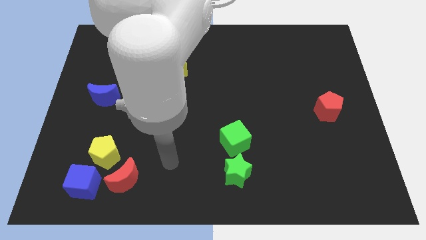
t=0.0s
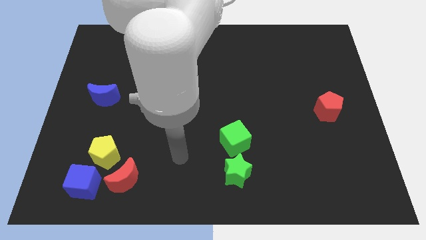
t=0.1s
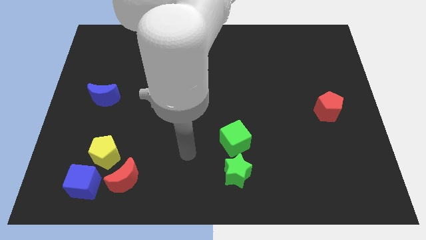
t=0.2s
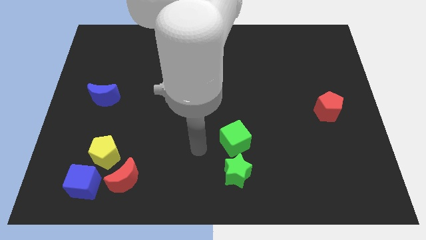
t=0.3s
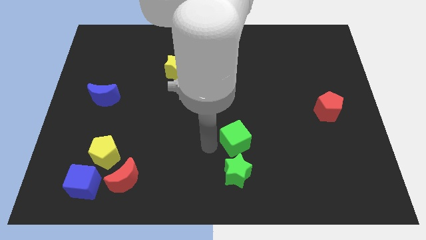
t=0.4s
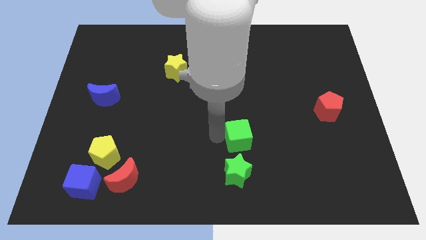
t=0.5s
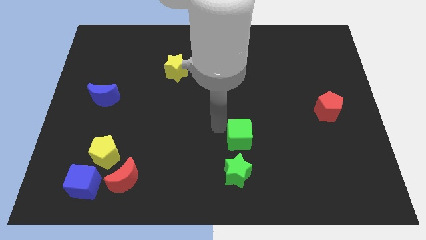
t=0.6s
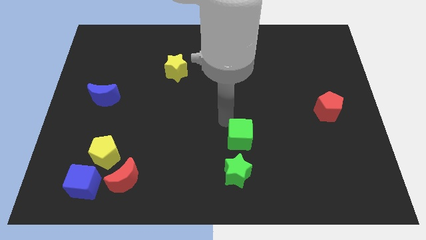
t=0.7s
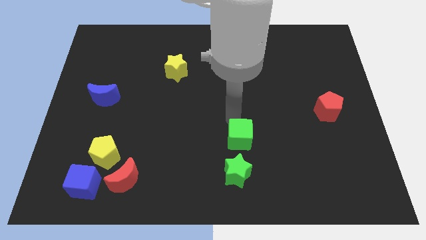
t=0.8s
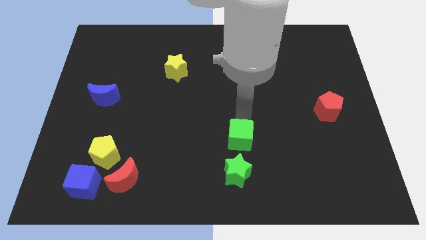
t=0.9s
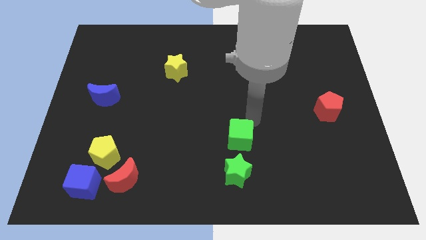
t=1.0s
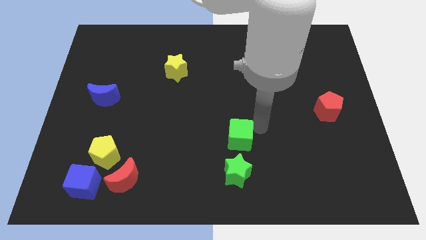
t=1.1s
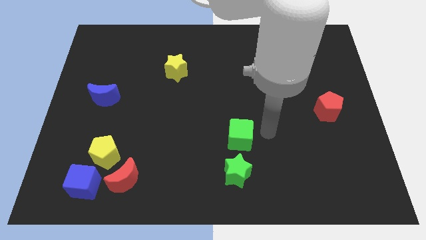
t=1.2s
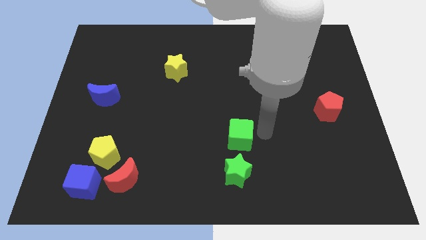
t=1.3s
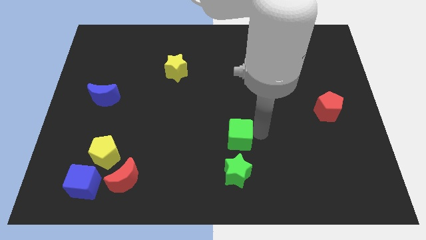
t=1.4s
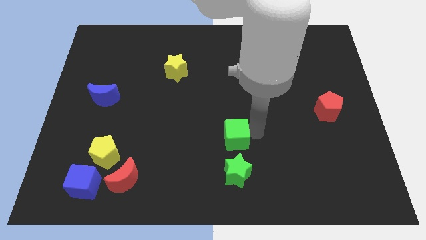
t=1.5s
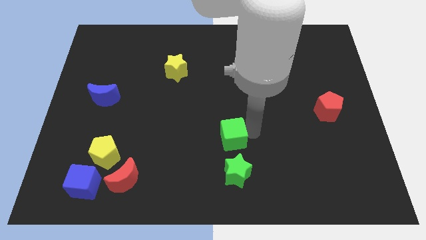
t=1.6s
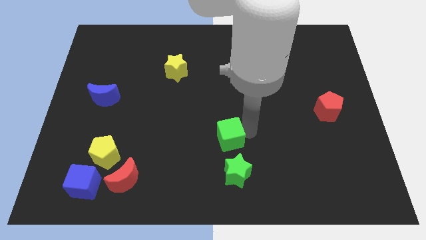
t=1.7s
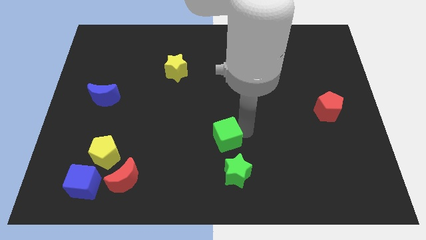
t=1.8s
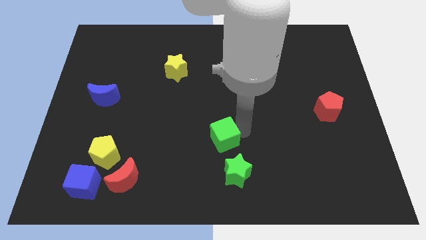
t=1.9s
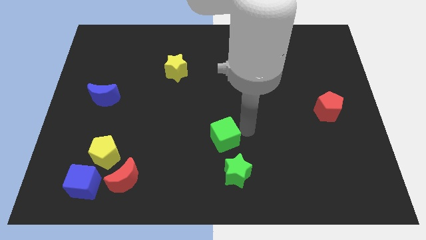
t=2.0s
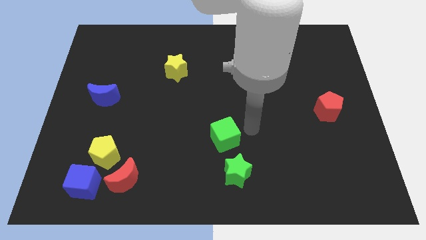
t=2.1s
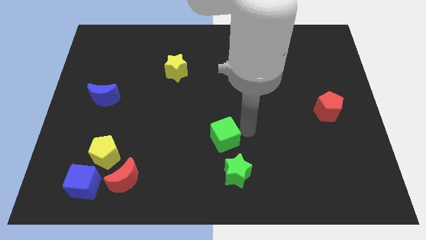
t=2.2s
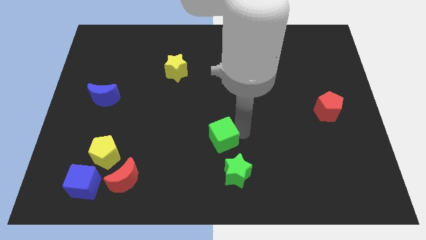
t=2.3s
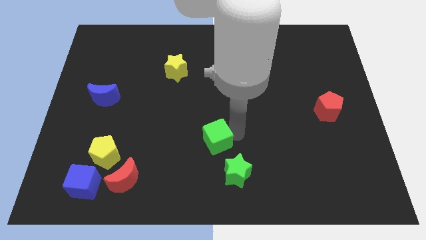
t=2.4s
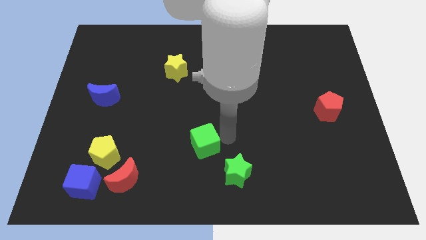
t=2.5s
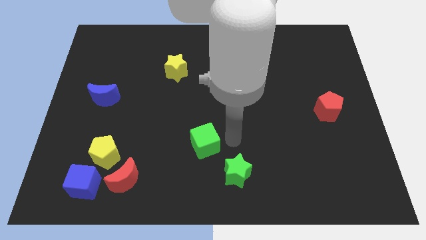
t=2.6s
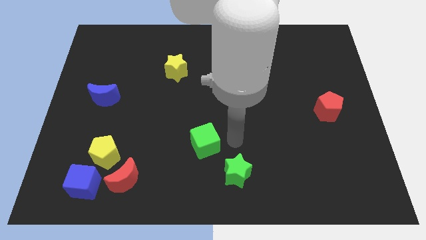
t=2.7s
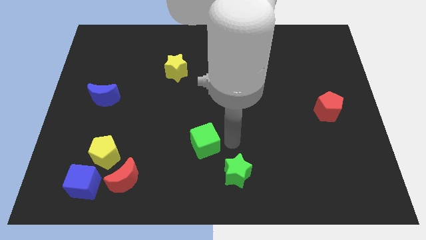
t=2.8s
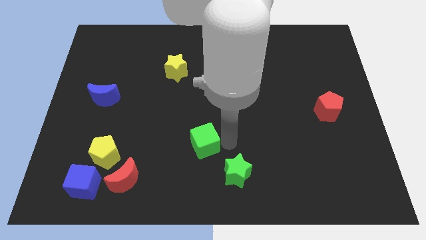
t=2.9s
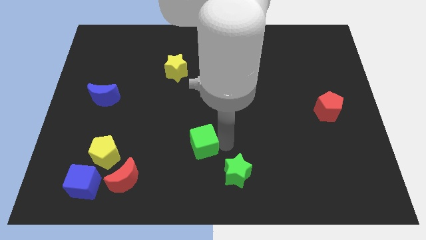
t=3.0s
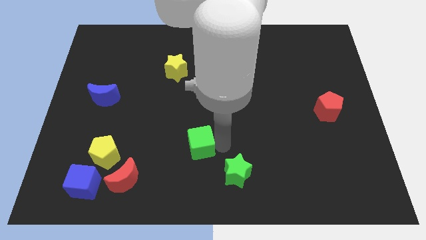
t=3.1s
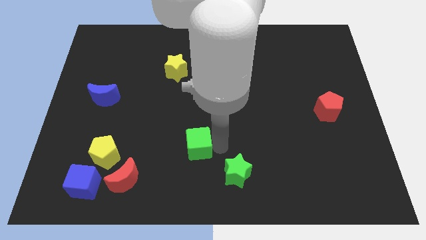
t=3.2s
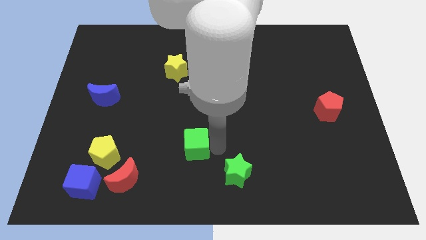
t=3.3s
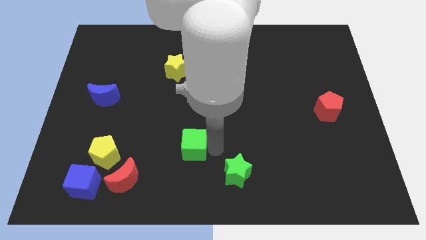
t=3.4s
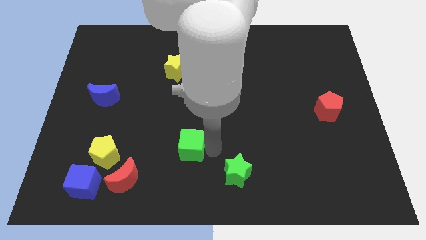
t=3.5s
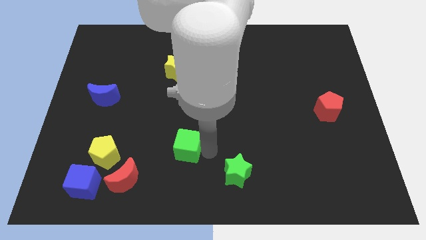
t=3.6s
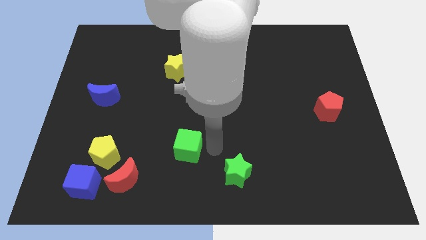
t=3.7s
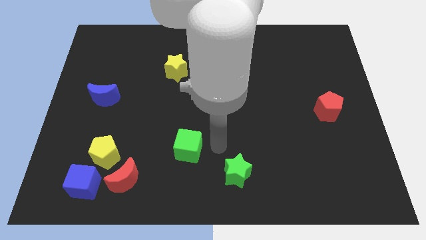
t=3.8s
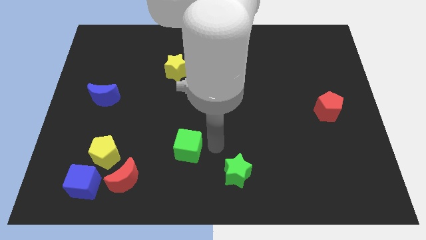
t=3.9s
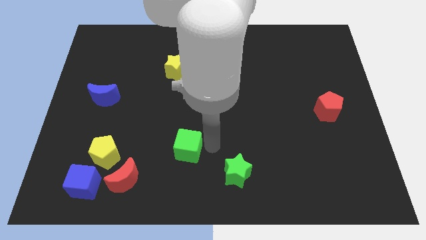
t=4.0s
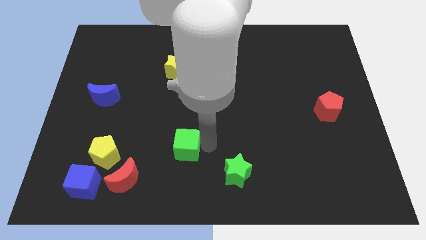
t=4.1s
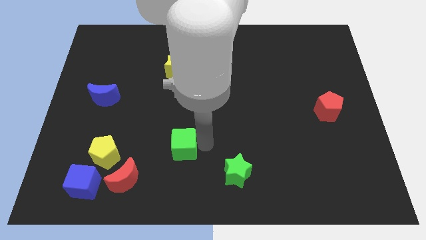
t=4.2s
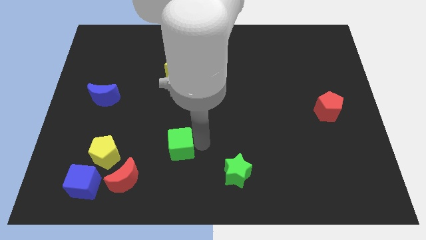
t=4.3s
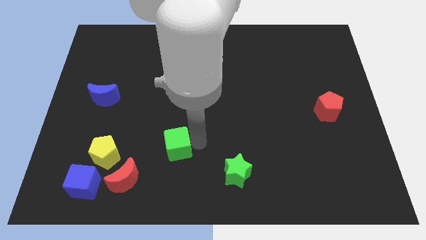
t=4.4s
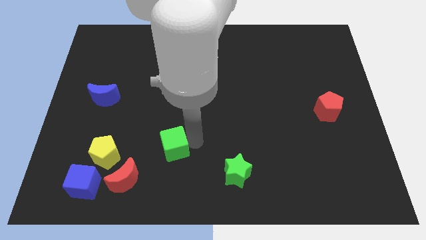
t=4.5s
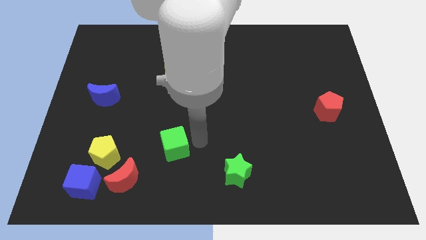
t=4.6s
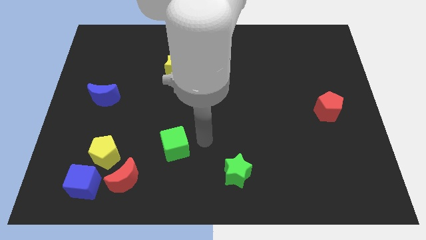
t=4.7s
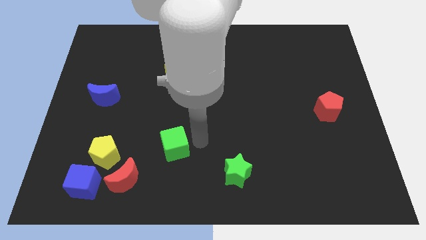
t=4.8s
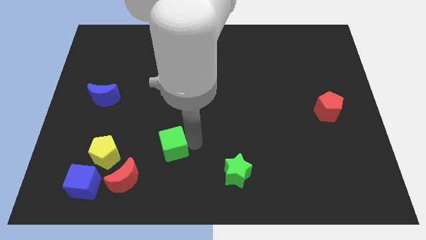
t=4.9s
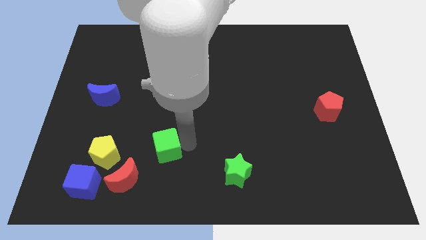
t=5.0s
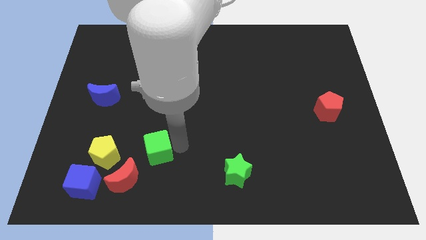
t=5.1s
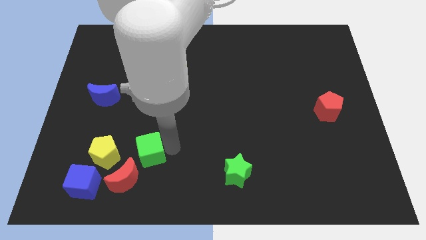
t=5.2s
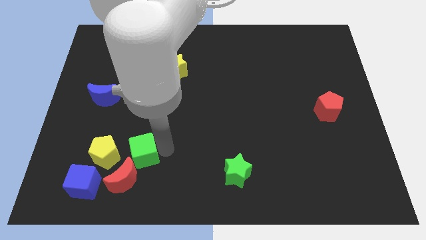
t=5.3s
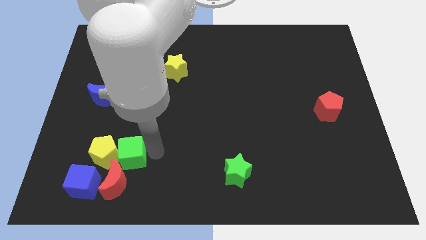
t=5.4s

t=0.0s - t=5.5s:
slide the green cube towards the yellow pentagon
